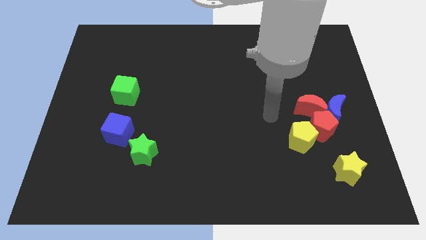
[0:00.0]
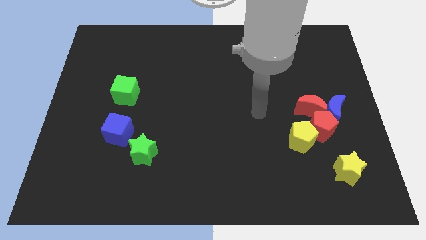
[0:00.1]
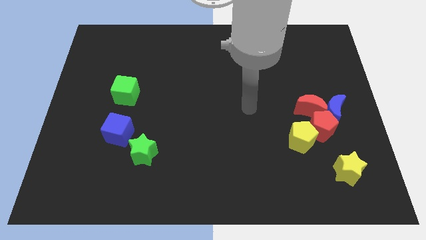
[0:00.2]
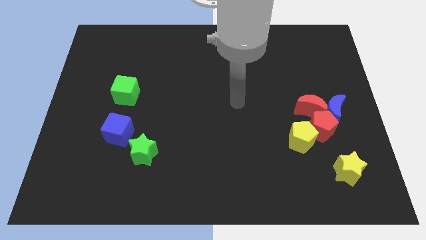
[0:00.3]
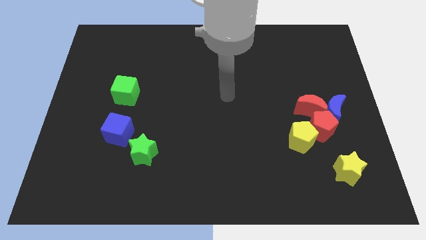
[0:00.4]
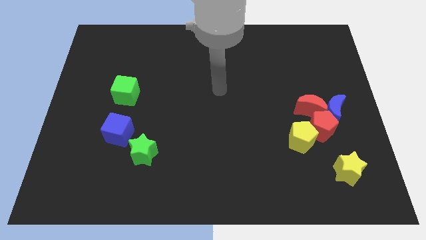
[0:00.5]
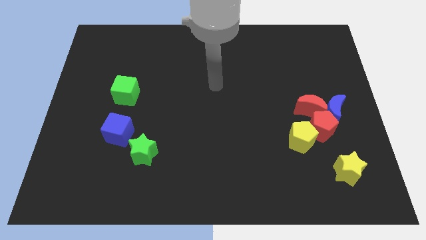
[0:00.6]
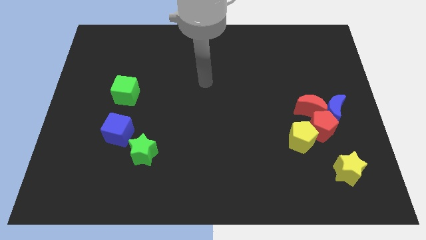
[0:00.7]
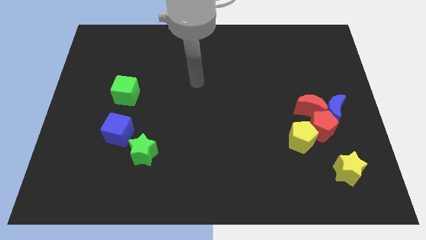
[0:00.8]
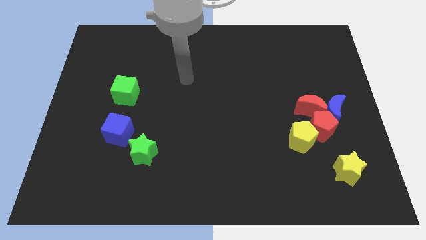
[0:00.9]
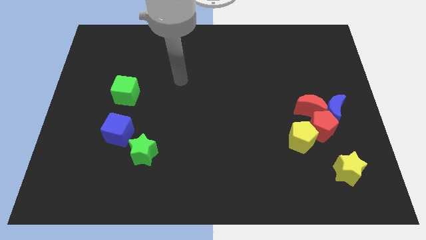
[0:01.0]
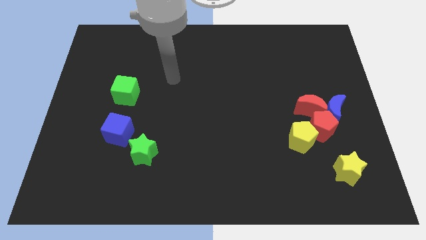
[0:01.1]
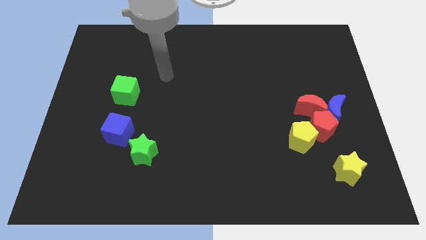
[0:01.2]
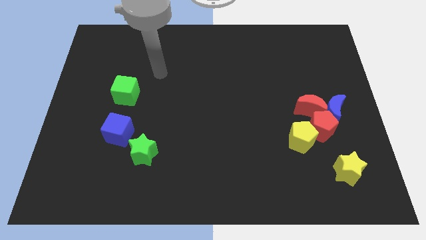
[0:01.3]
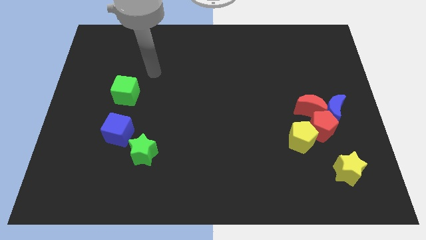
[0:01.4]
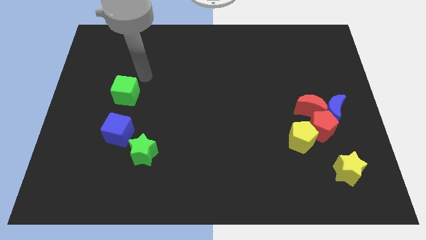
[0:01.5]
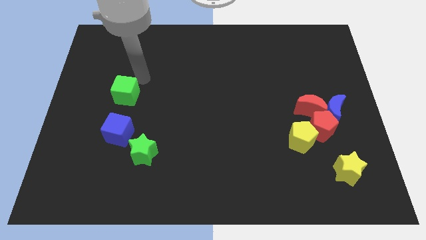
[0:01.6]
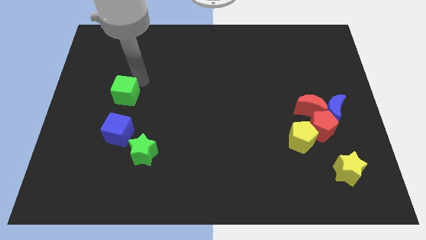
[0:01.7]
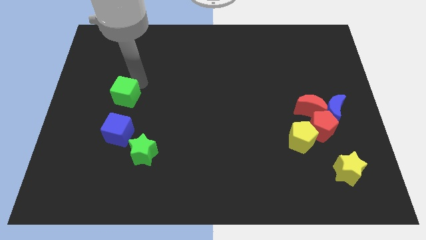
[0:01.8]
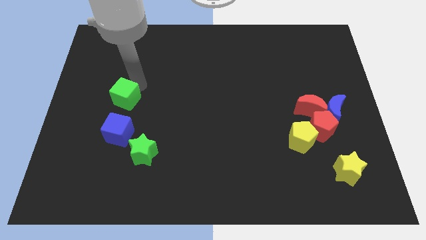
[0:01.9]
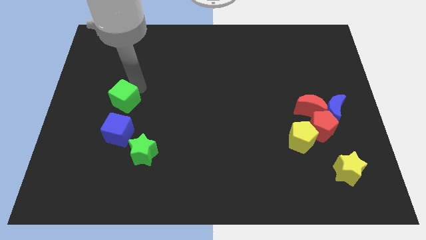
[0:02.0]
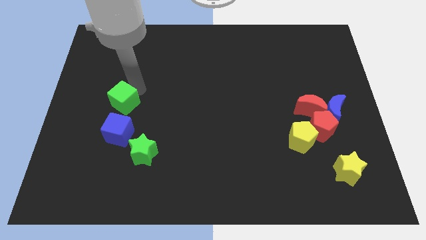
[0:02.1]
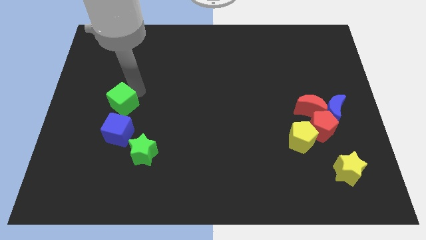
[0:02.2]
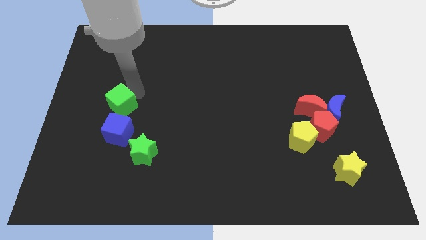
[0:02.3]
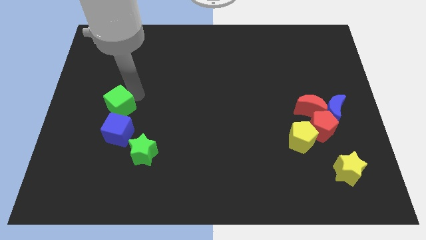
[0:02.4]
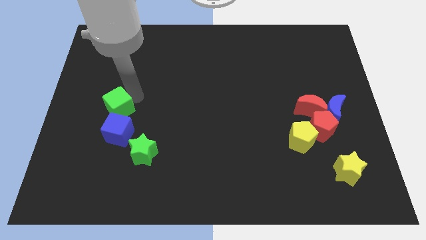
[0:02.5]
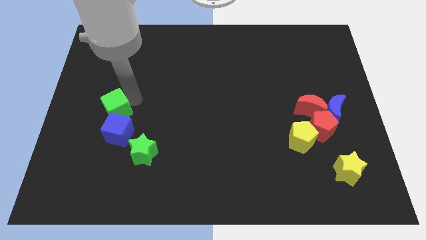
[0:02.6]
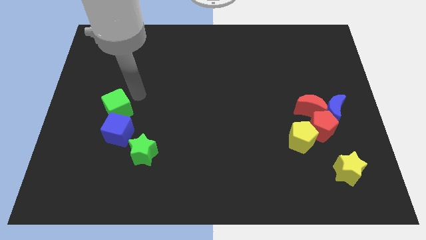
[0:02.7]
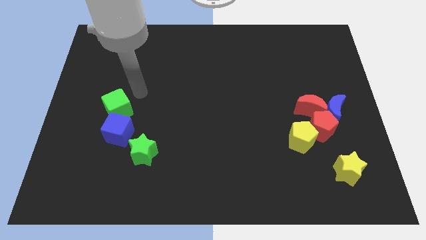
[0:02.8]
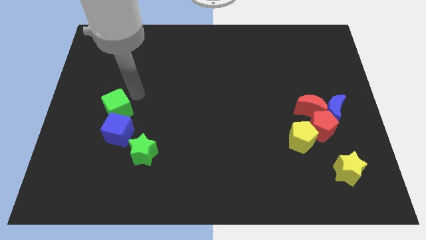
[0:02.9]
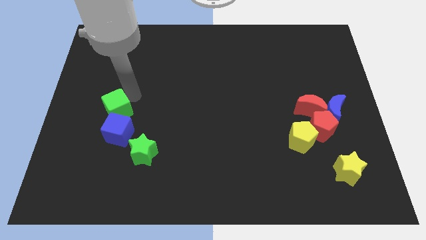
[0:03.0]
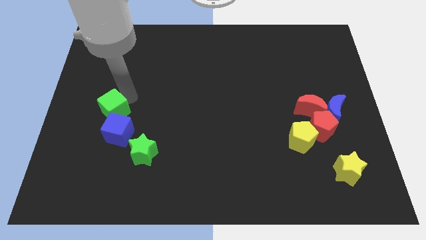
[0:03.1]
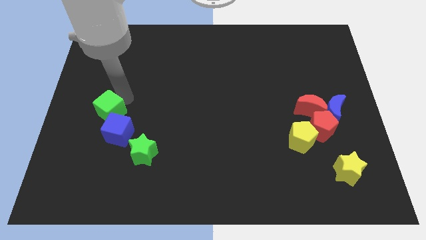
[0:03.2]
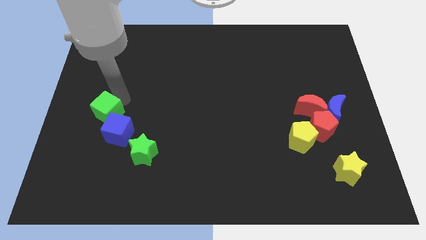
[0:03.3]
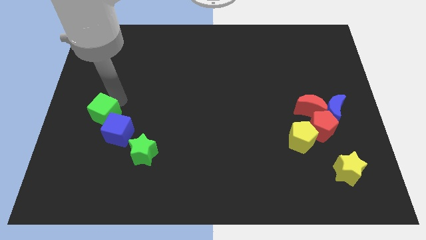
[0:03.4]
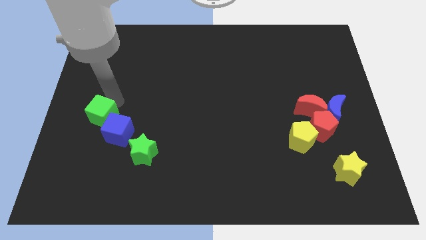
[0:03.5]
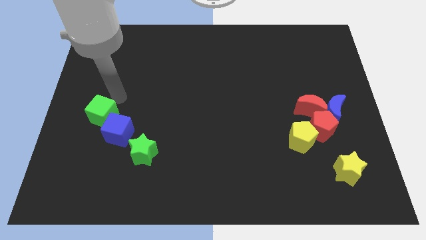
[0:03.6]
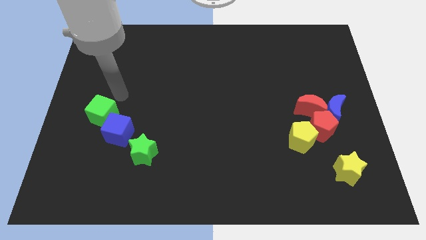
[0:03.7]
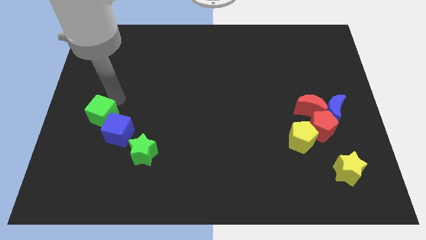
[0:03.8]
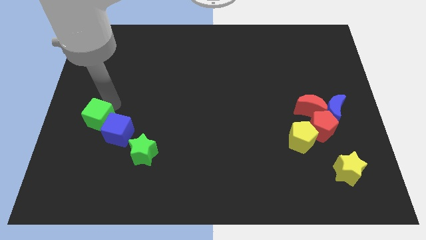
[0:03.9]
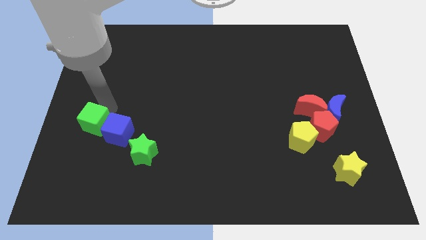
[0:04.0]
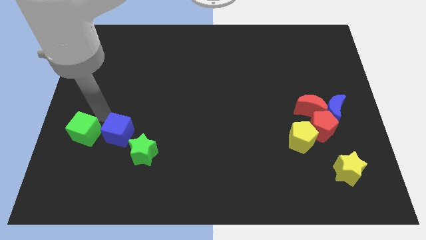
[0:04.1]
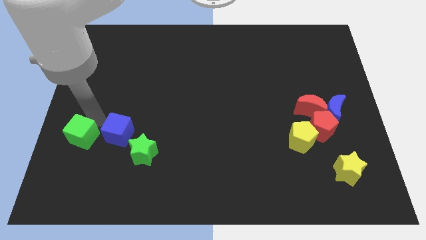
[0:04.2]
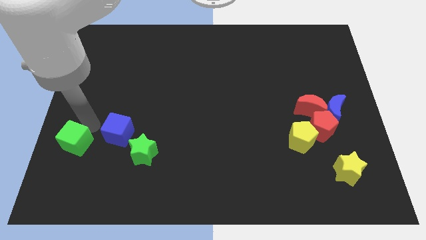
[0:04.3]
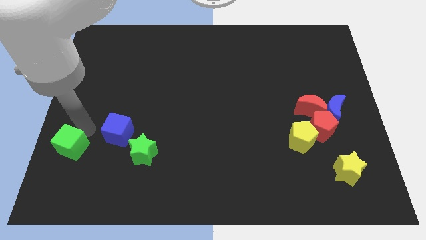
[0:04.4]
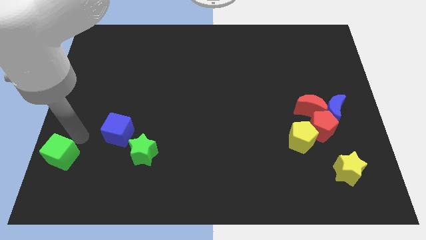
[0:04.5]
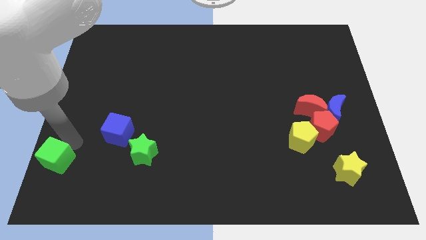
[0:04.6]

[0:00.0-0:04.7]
push the green cube to the bottom left corner

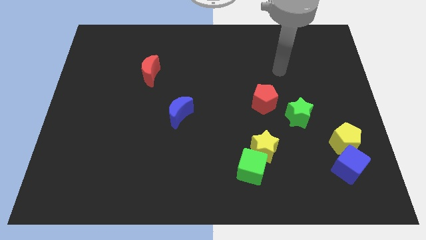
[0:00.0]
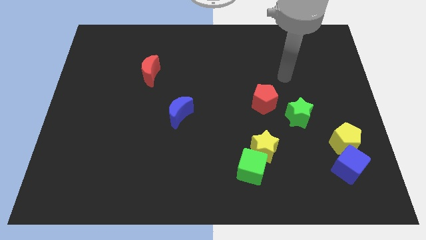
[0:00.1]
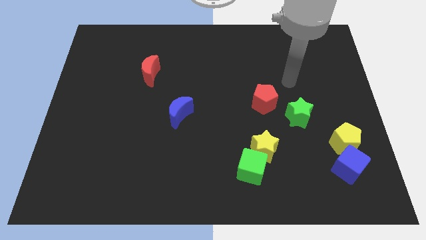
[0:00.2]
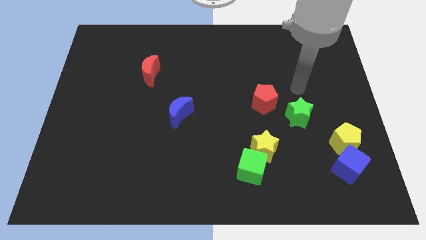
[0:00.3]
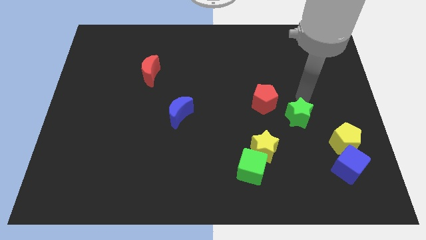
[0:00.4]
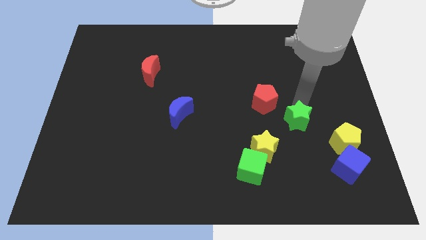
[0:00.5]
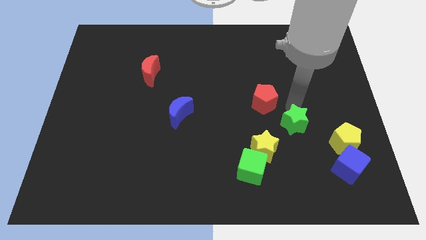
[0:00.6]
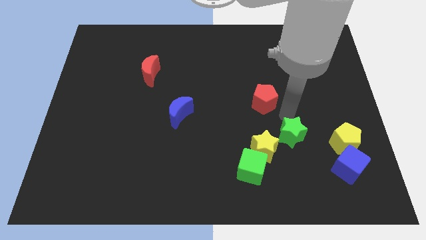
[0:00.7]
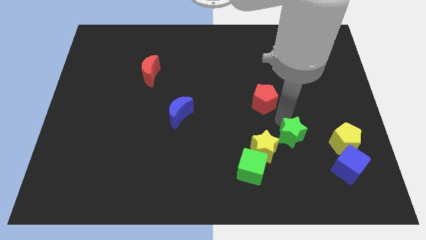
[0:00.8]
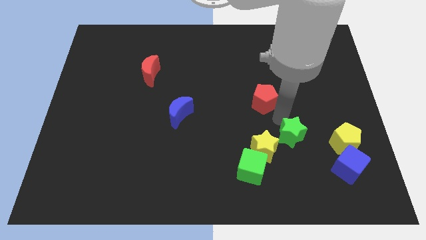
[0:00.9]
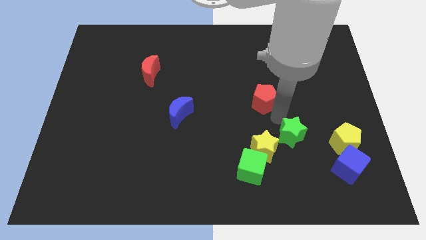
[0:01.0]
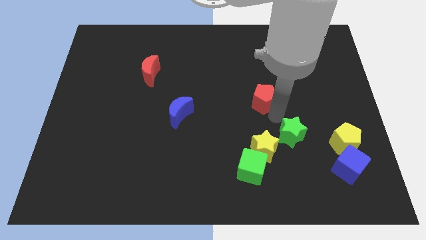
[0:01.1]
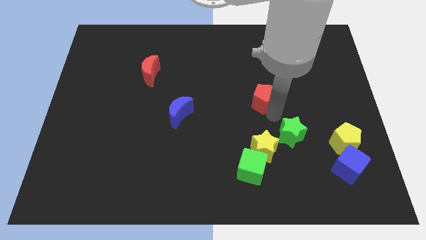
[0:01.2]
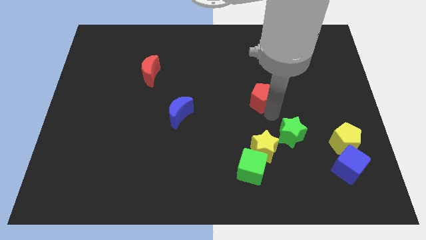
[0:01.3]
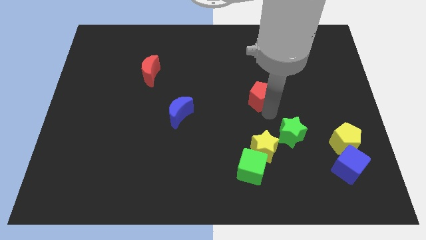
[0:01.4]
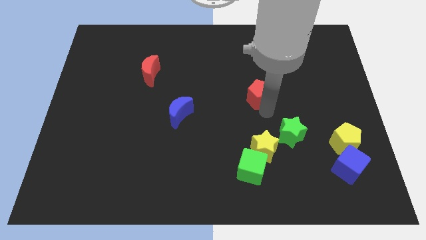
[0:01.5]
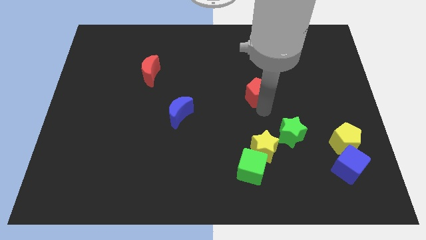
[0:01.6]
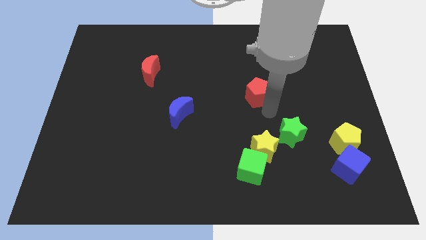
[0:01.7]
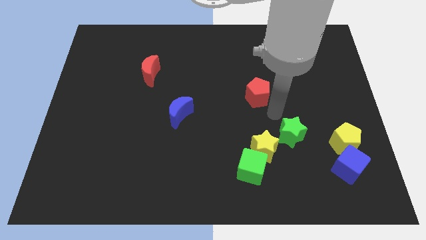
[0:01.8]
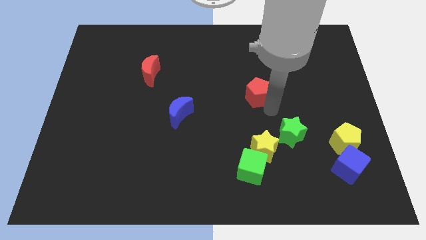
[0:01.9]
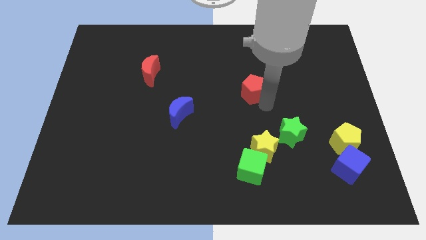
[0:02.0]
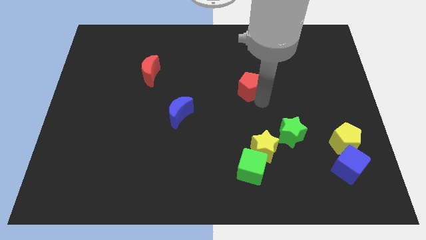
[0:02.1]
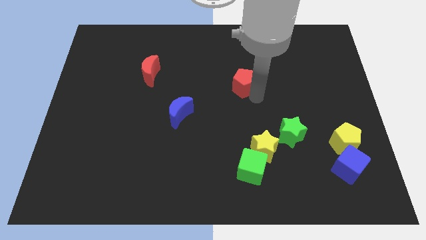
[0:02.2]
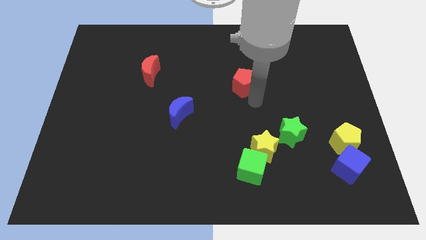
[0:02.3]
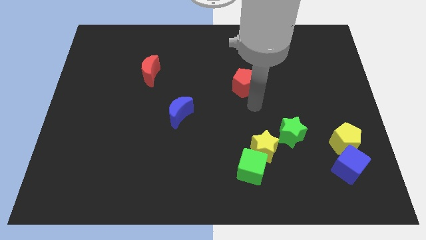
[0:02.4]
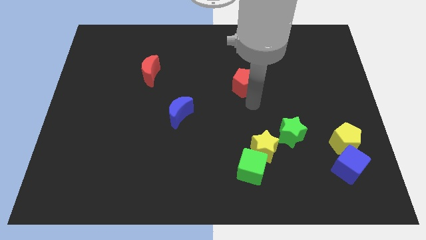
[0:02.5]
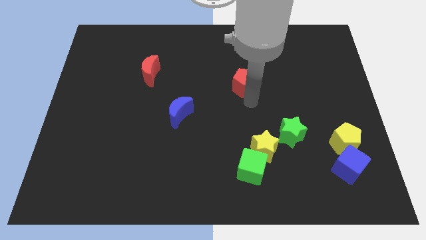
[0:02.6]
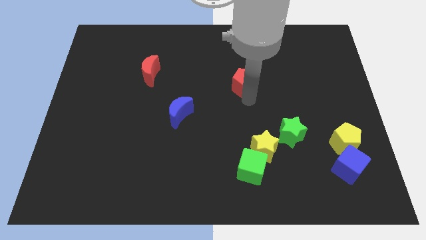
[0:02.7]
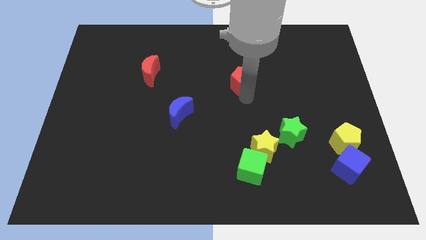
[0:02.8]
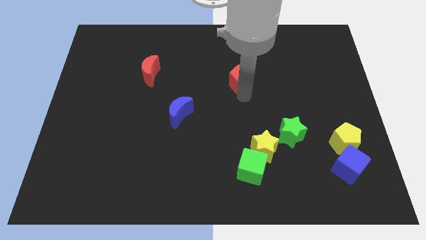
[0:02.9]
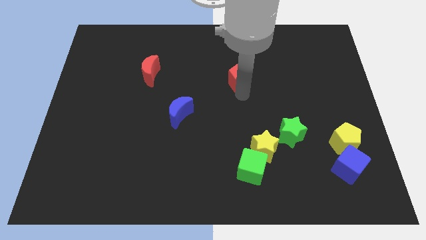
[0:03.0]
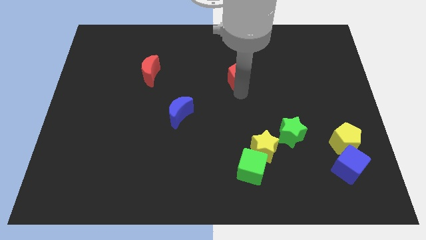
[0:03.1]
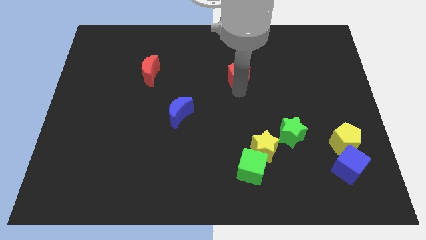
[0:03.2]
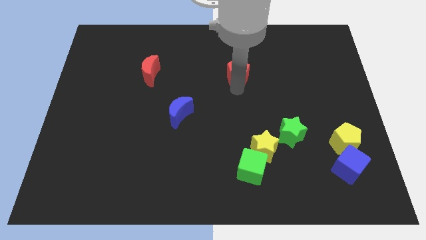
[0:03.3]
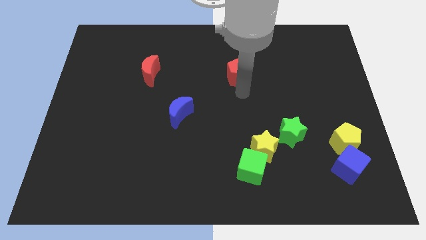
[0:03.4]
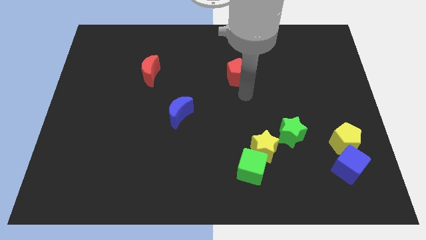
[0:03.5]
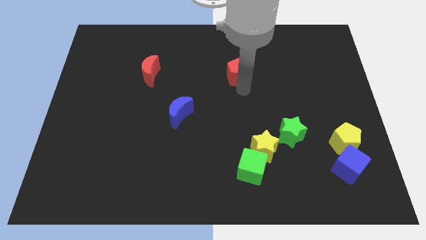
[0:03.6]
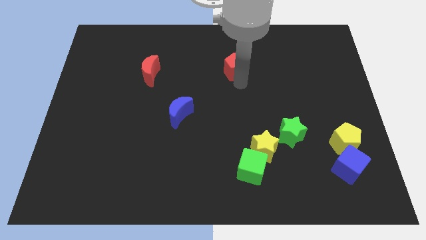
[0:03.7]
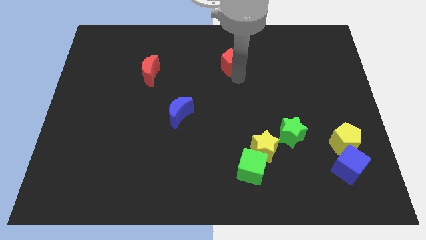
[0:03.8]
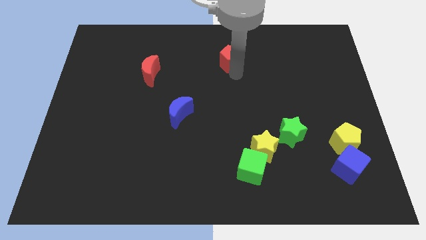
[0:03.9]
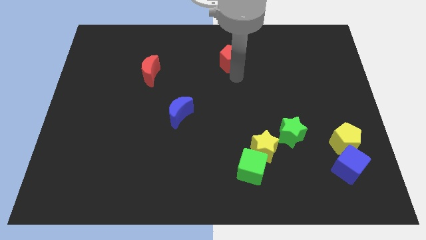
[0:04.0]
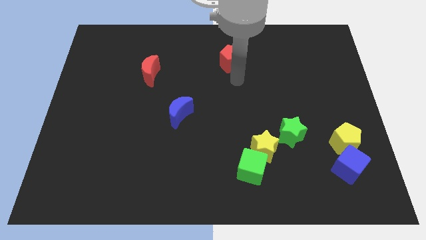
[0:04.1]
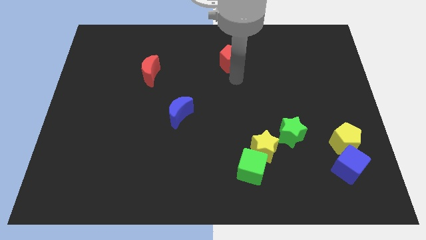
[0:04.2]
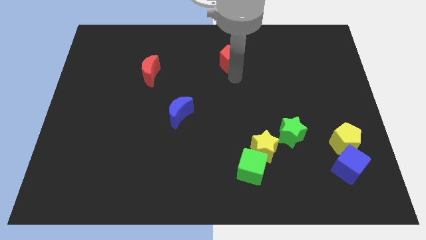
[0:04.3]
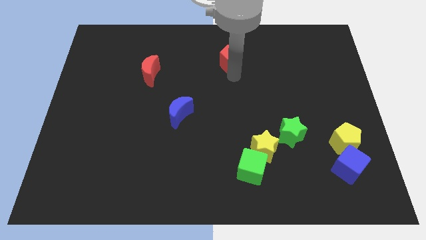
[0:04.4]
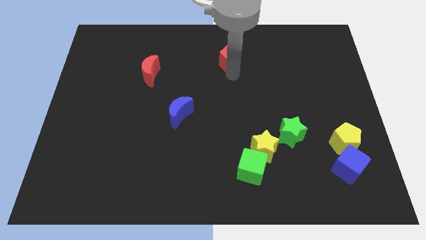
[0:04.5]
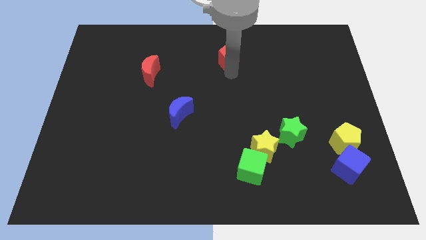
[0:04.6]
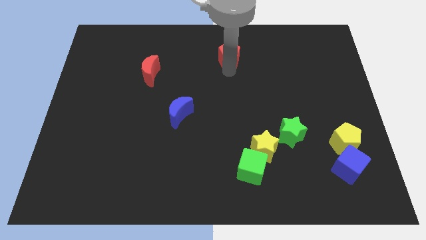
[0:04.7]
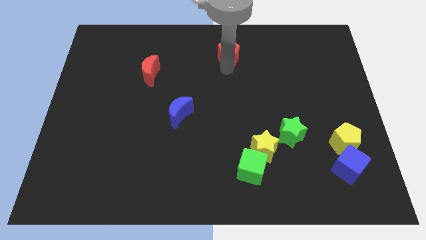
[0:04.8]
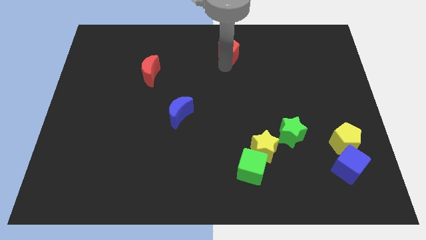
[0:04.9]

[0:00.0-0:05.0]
move the red pentagon to the top
